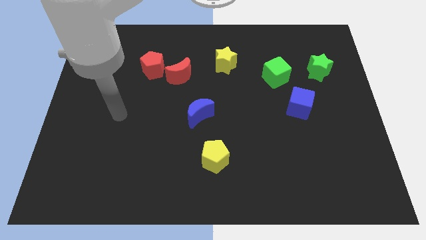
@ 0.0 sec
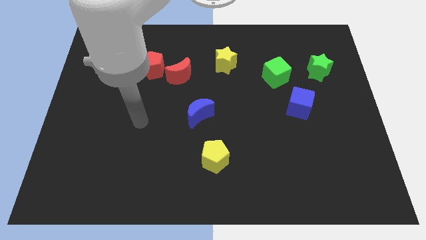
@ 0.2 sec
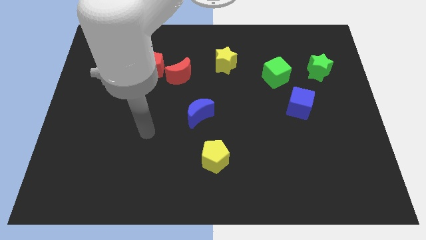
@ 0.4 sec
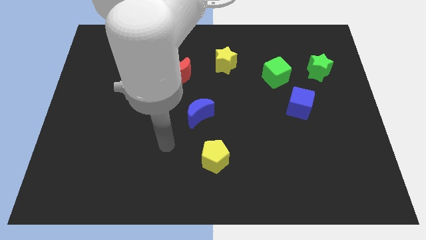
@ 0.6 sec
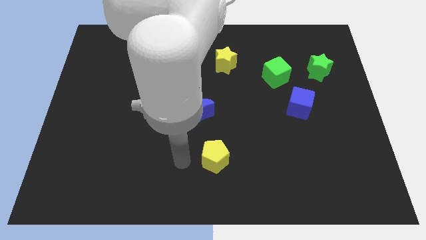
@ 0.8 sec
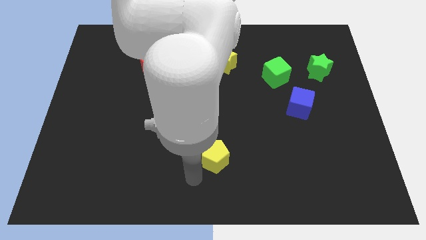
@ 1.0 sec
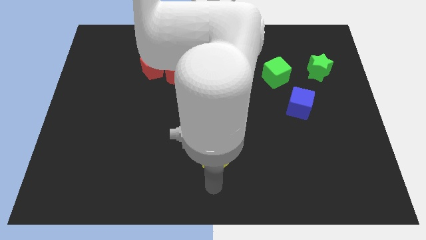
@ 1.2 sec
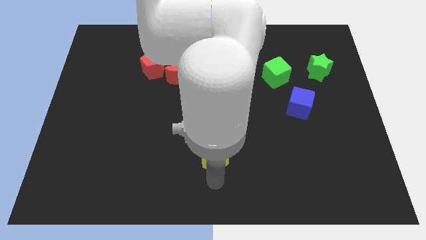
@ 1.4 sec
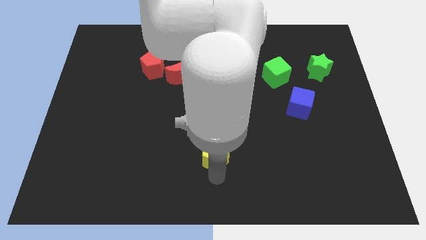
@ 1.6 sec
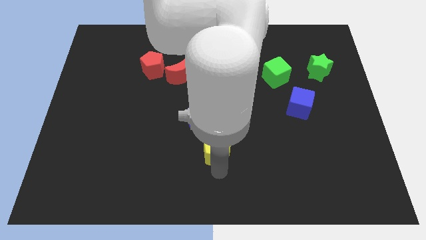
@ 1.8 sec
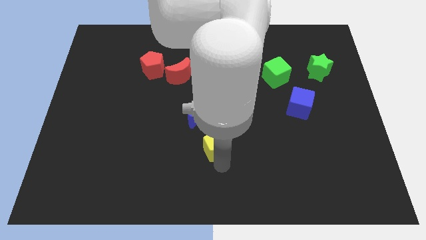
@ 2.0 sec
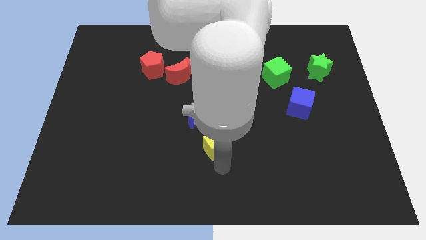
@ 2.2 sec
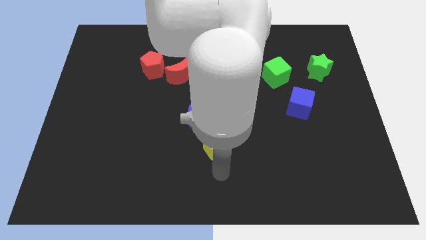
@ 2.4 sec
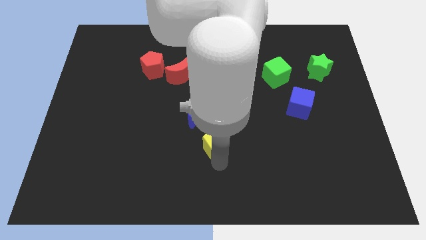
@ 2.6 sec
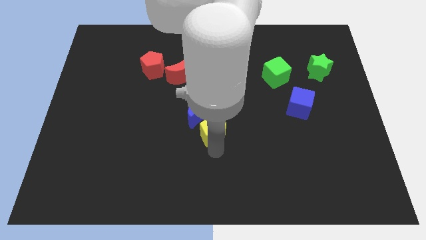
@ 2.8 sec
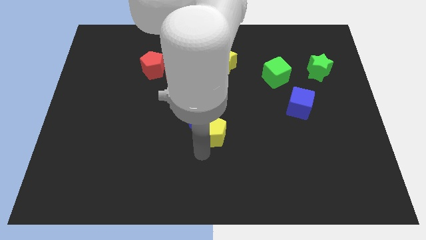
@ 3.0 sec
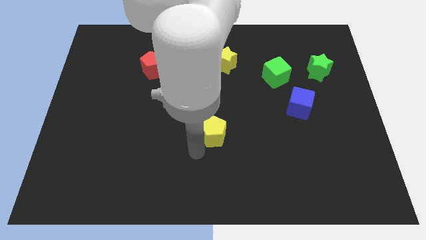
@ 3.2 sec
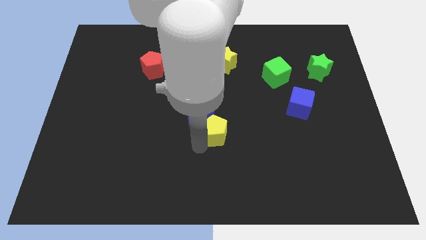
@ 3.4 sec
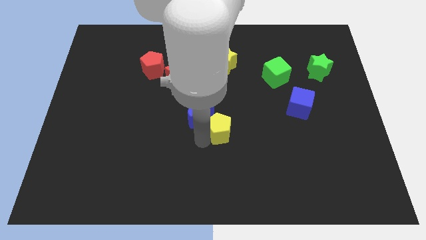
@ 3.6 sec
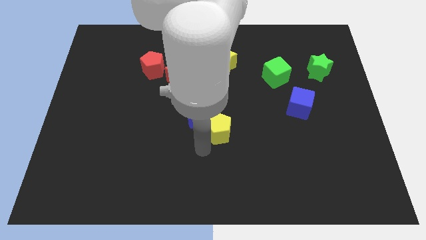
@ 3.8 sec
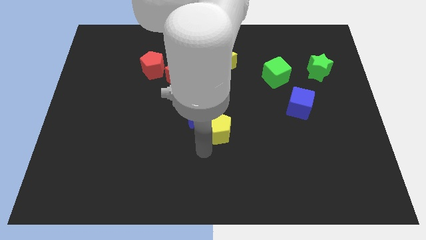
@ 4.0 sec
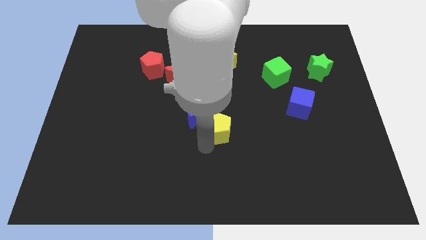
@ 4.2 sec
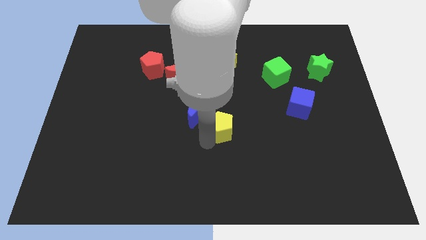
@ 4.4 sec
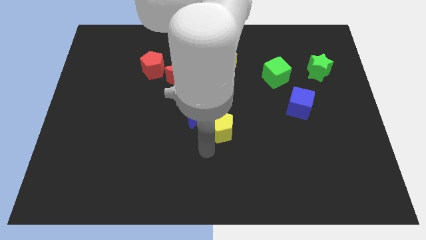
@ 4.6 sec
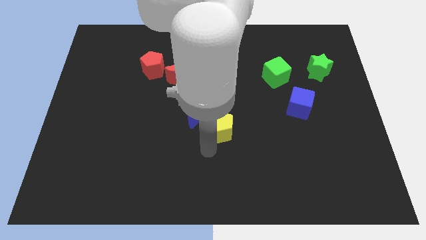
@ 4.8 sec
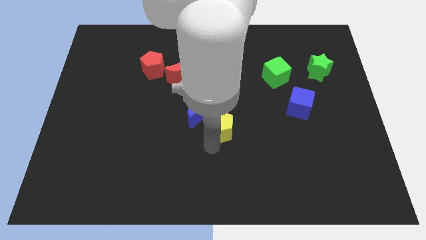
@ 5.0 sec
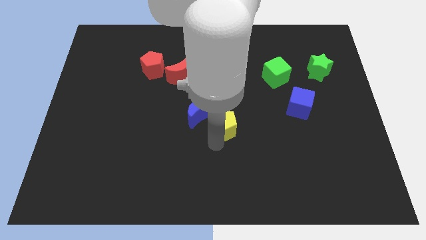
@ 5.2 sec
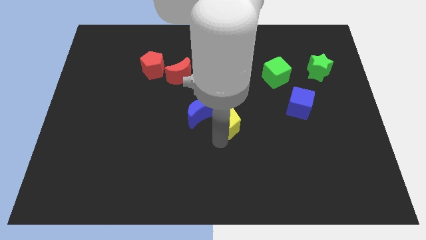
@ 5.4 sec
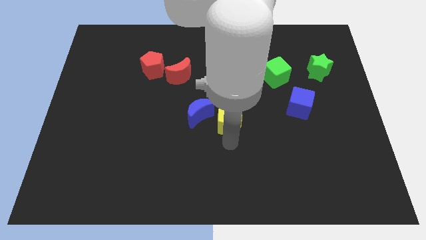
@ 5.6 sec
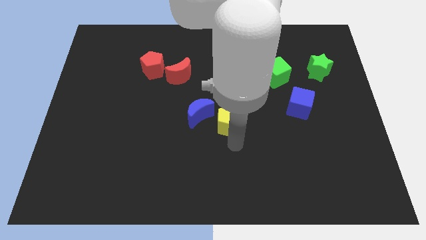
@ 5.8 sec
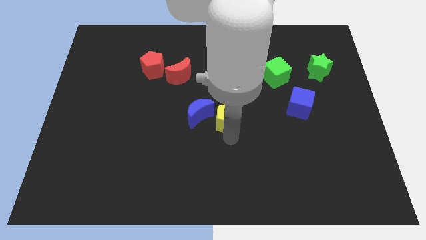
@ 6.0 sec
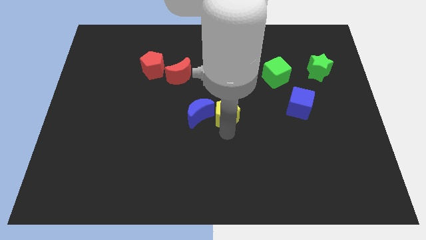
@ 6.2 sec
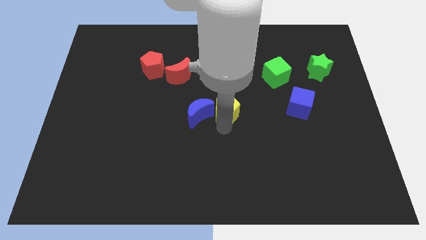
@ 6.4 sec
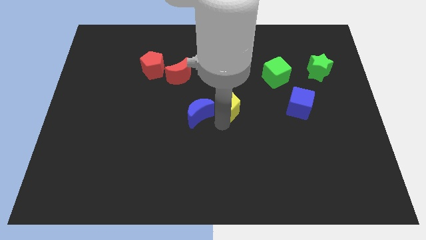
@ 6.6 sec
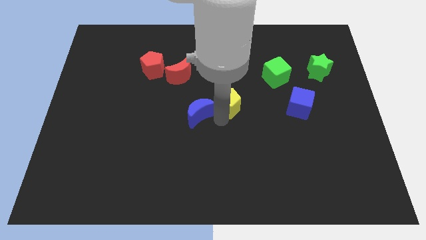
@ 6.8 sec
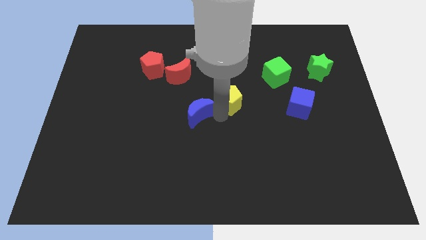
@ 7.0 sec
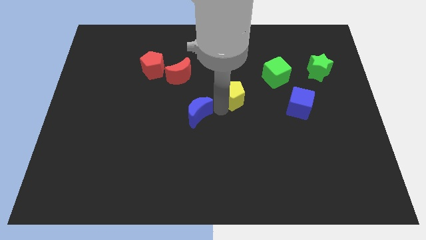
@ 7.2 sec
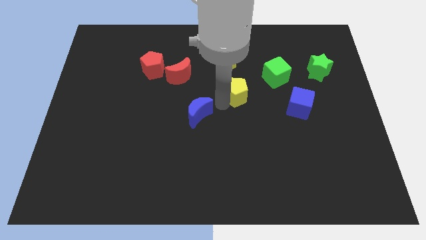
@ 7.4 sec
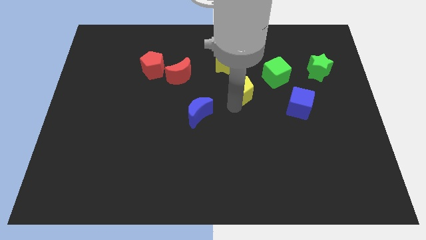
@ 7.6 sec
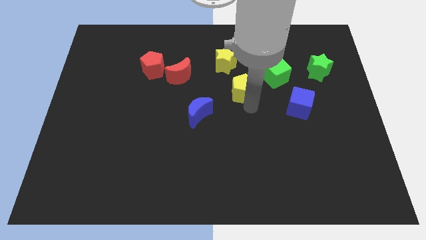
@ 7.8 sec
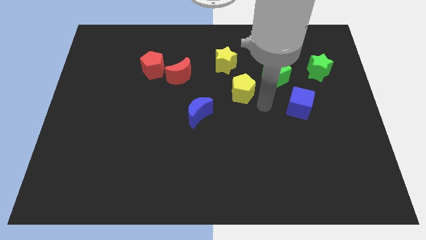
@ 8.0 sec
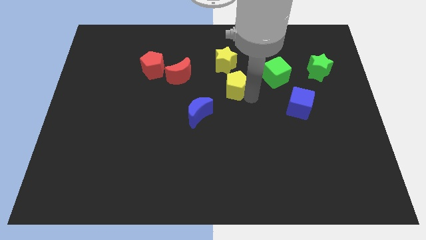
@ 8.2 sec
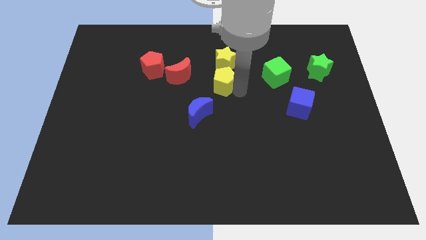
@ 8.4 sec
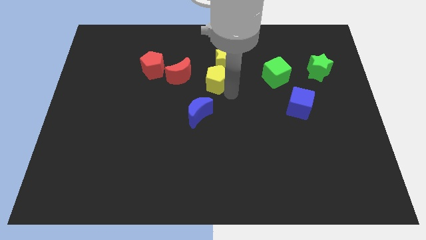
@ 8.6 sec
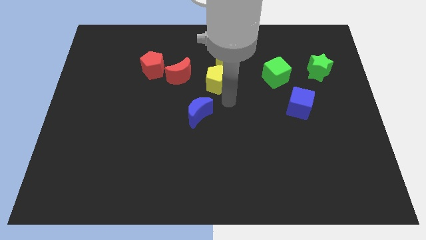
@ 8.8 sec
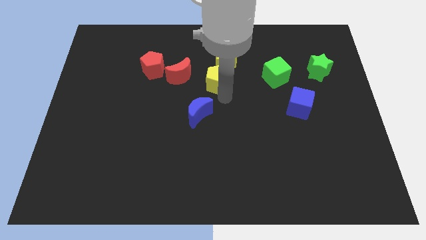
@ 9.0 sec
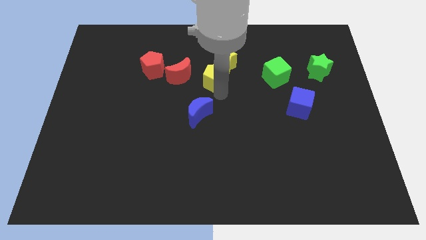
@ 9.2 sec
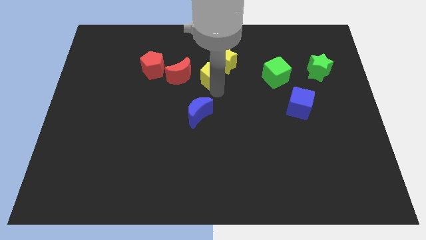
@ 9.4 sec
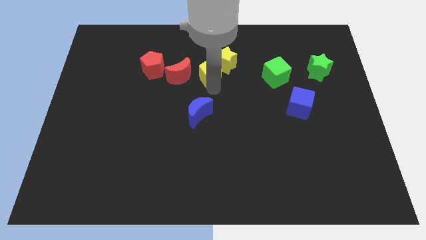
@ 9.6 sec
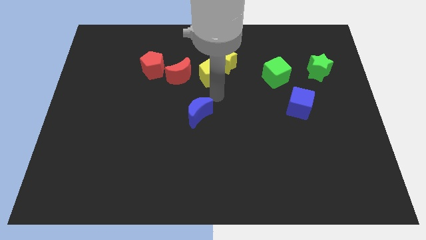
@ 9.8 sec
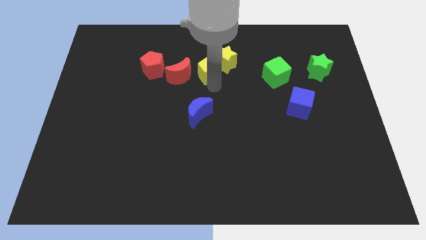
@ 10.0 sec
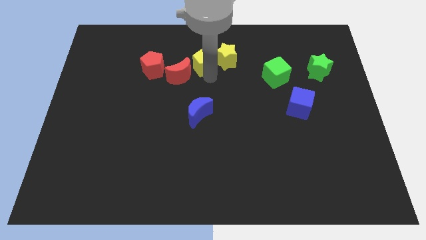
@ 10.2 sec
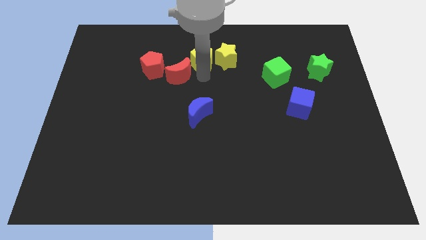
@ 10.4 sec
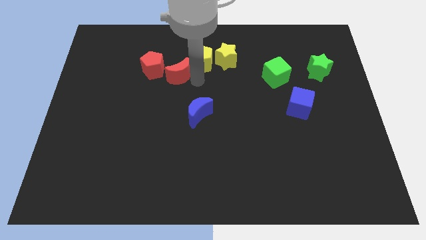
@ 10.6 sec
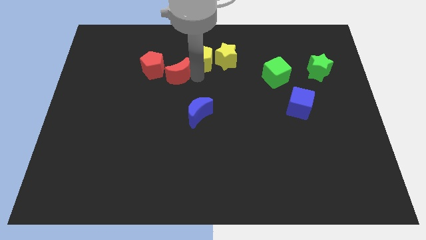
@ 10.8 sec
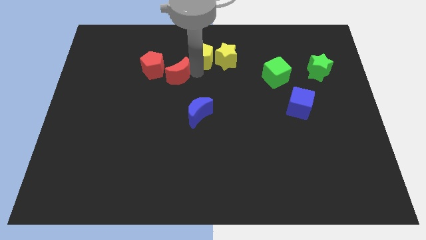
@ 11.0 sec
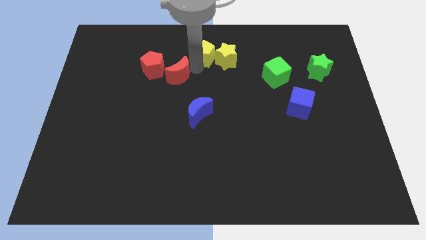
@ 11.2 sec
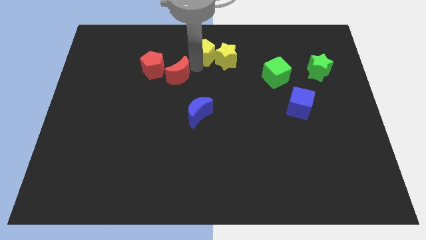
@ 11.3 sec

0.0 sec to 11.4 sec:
slide the yellow pentagon to the top side
